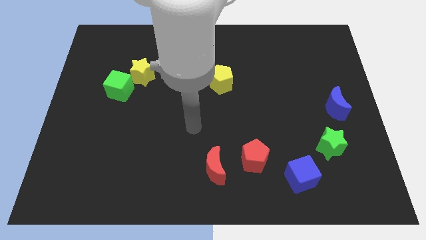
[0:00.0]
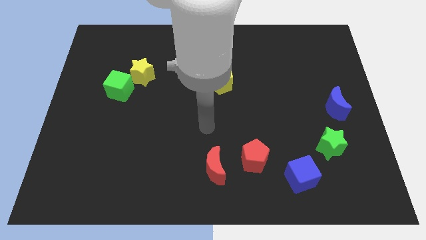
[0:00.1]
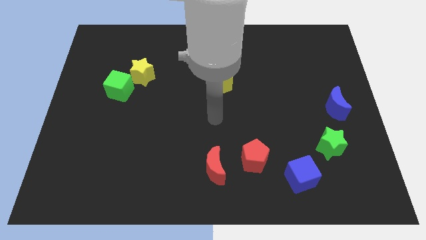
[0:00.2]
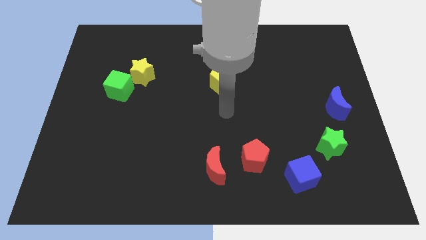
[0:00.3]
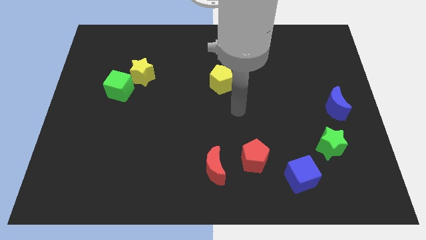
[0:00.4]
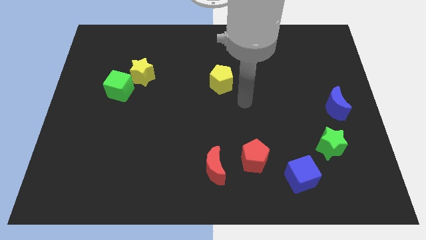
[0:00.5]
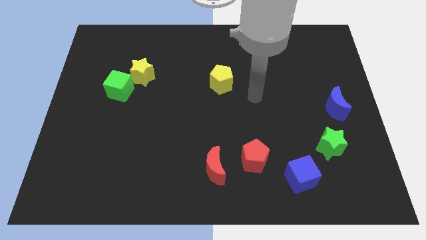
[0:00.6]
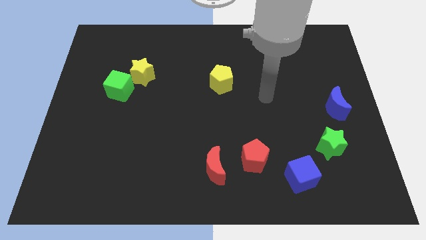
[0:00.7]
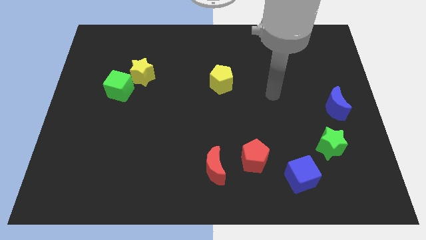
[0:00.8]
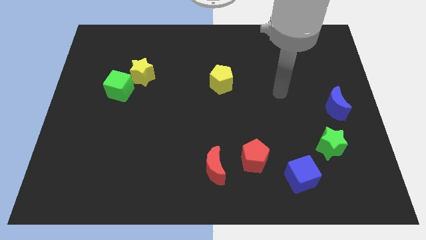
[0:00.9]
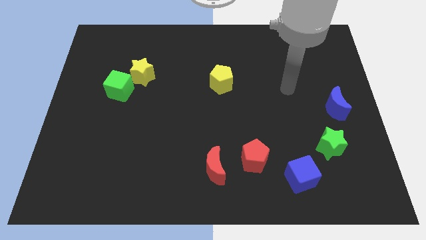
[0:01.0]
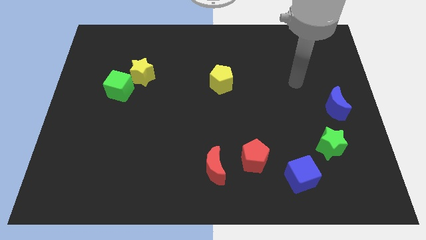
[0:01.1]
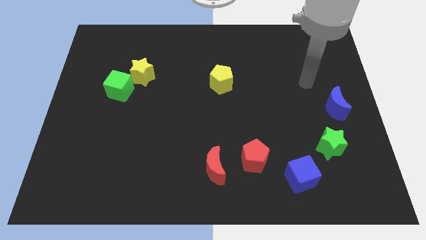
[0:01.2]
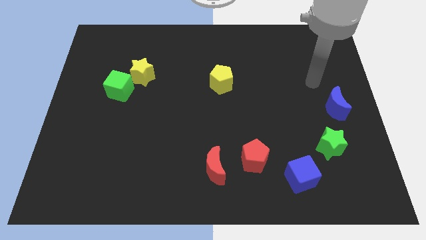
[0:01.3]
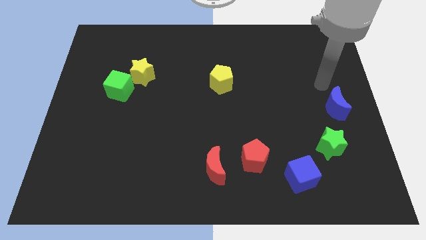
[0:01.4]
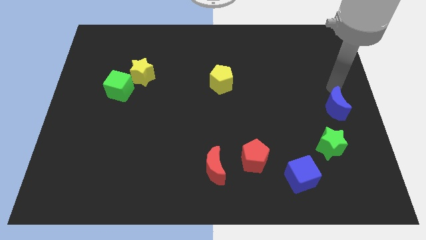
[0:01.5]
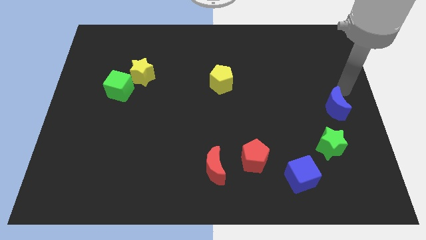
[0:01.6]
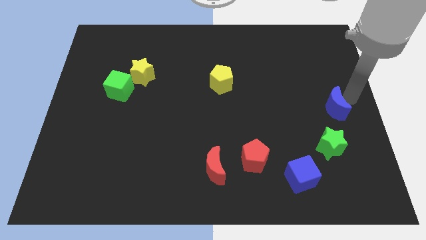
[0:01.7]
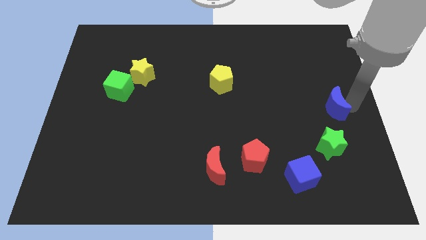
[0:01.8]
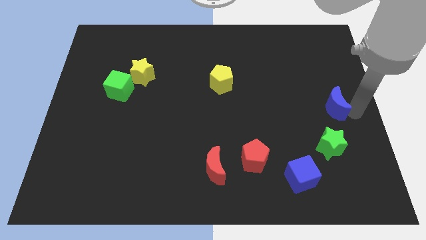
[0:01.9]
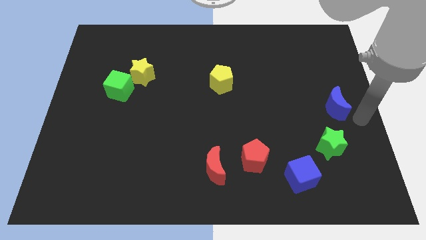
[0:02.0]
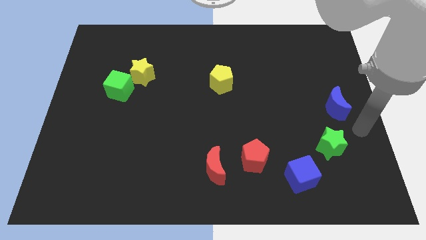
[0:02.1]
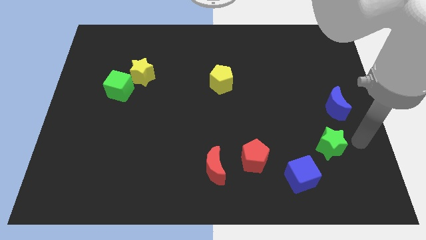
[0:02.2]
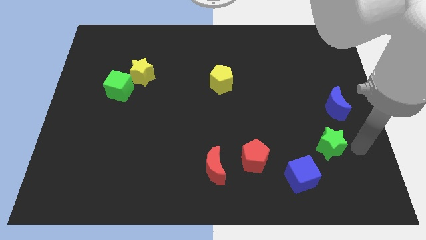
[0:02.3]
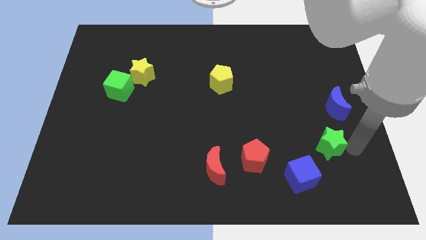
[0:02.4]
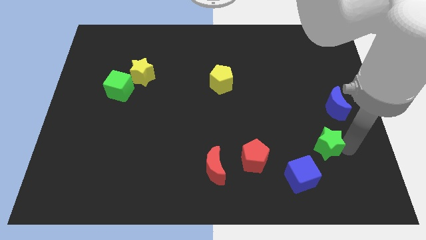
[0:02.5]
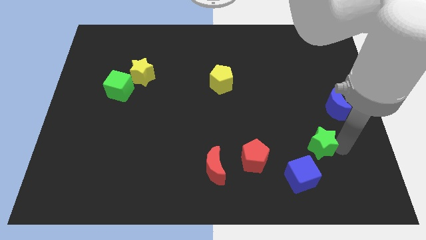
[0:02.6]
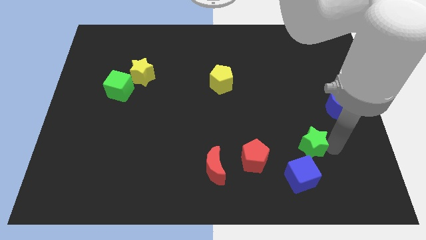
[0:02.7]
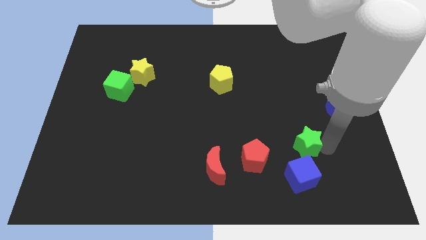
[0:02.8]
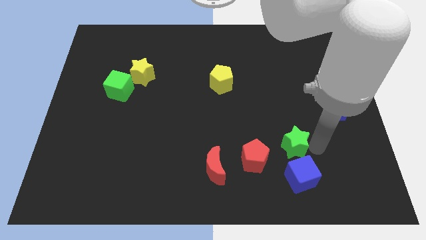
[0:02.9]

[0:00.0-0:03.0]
move the green star left slightly

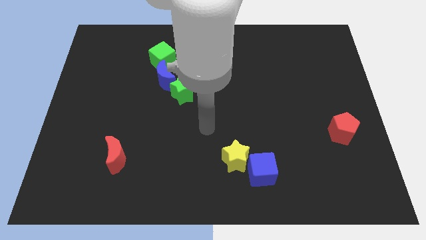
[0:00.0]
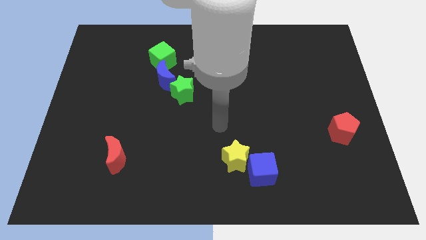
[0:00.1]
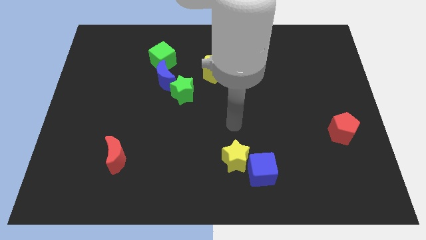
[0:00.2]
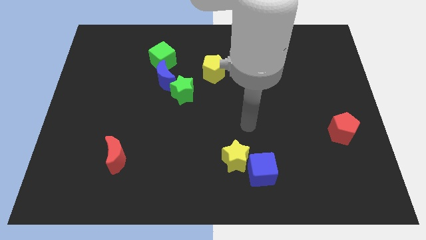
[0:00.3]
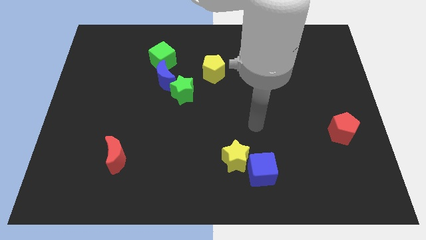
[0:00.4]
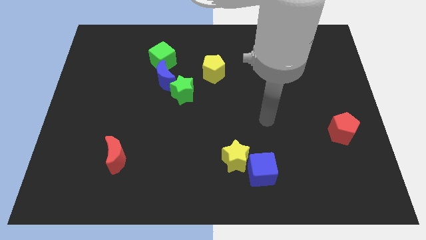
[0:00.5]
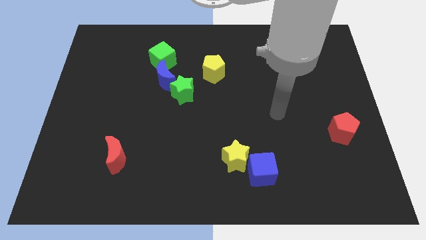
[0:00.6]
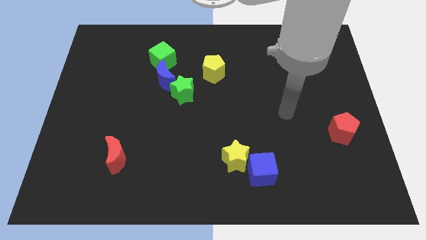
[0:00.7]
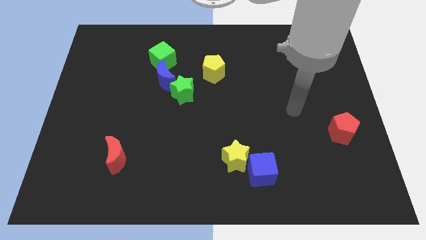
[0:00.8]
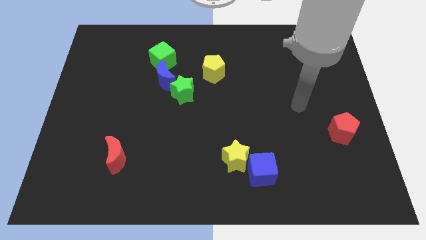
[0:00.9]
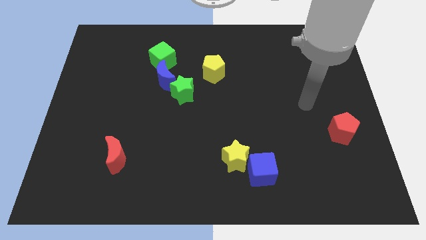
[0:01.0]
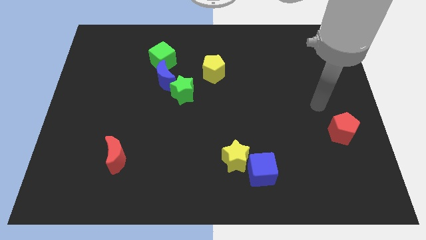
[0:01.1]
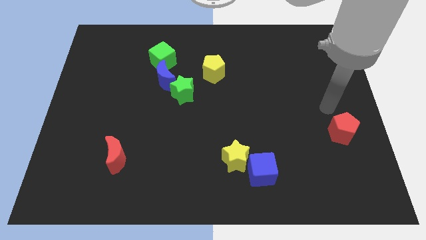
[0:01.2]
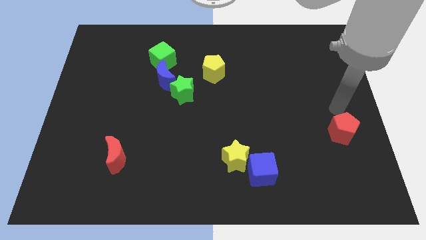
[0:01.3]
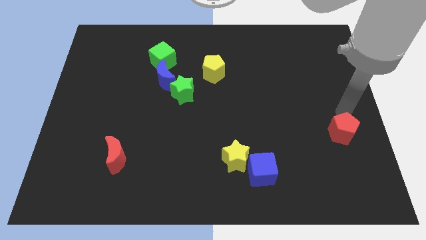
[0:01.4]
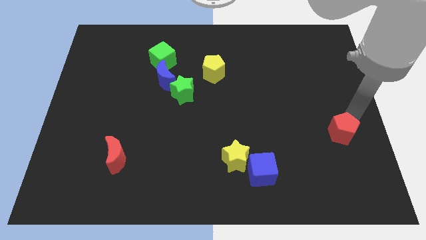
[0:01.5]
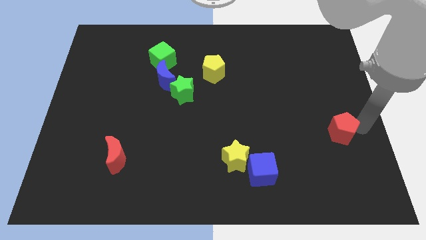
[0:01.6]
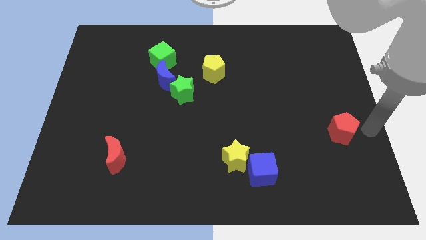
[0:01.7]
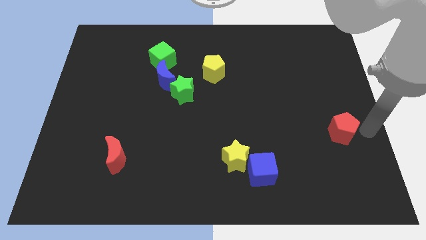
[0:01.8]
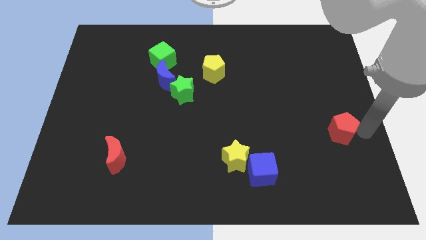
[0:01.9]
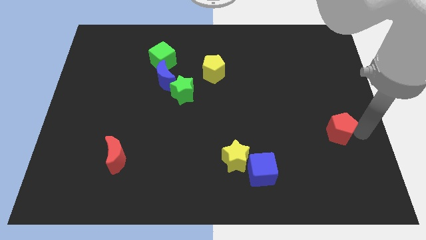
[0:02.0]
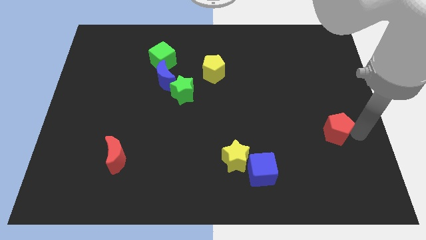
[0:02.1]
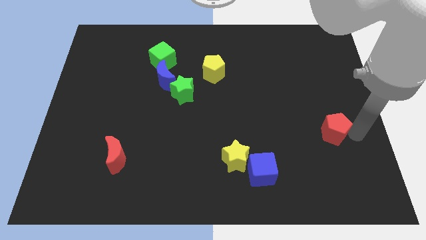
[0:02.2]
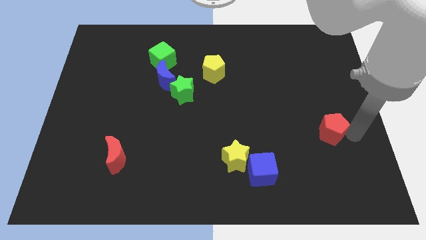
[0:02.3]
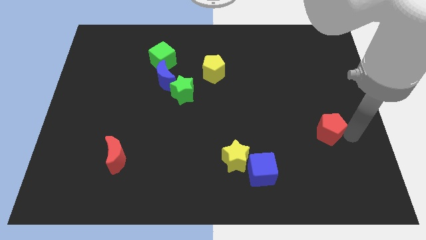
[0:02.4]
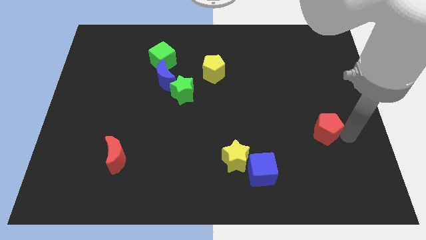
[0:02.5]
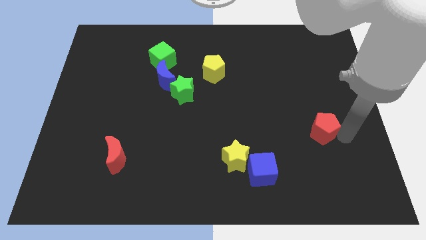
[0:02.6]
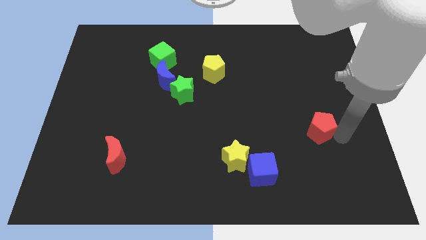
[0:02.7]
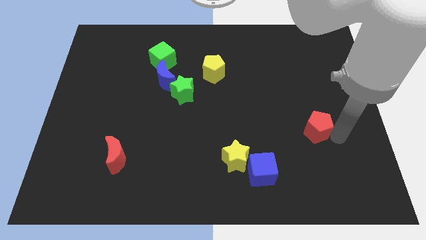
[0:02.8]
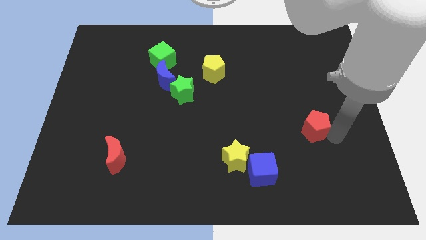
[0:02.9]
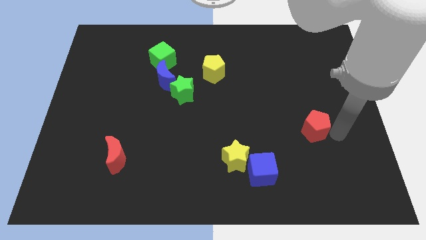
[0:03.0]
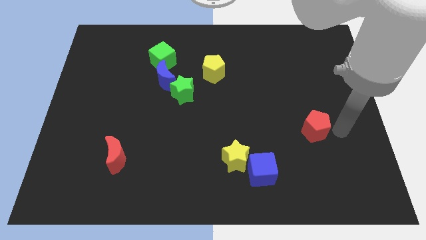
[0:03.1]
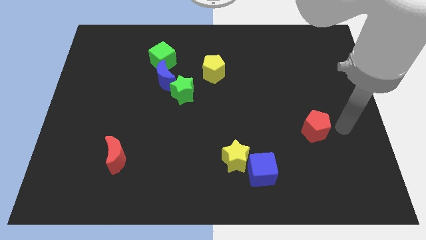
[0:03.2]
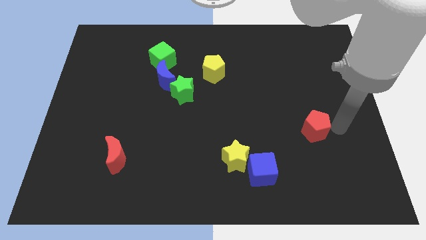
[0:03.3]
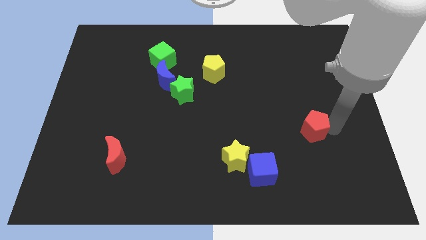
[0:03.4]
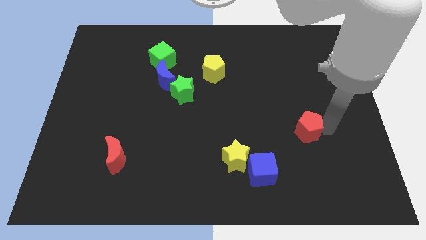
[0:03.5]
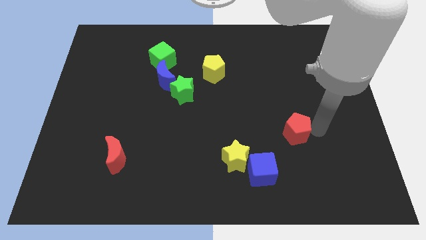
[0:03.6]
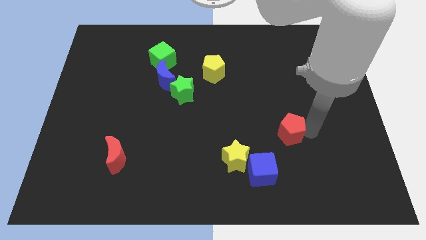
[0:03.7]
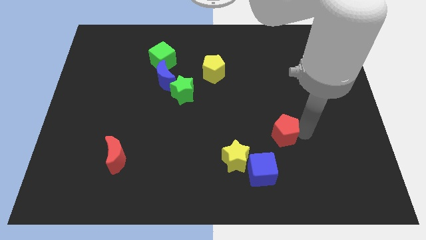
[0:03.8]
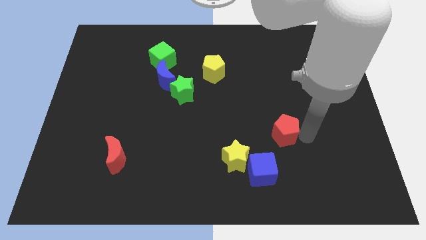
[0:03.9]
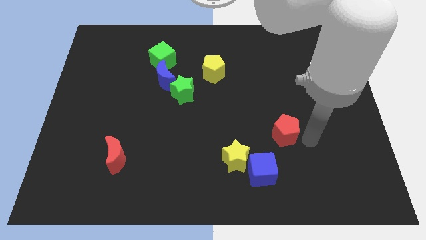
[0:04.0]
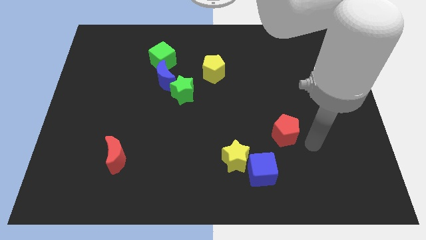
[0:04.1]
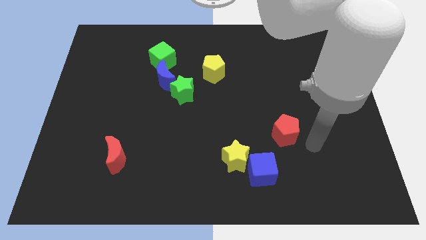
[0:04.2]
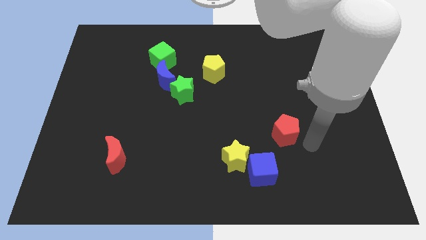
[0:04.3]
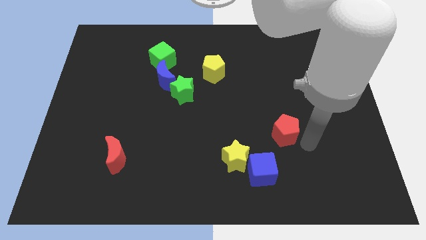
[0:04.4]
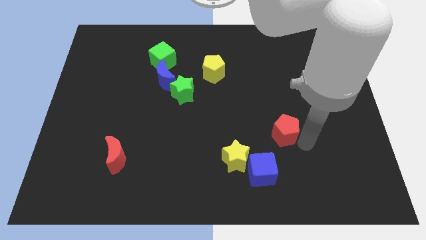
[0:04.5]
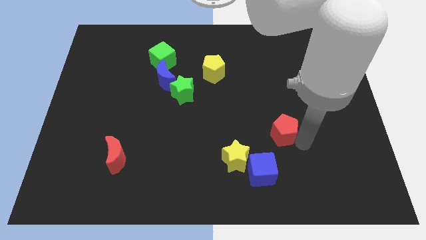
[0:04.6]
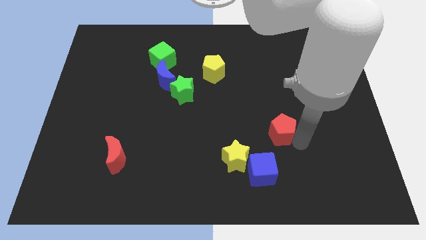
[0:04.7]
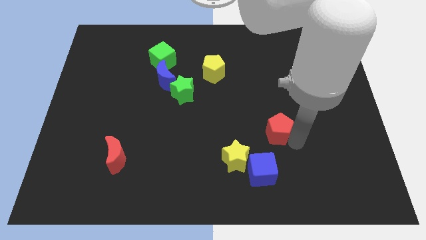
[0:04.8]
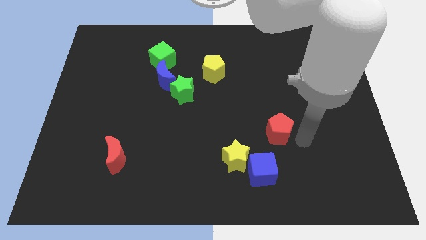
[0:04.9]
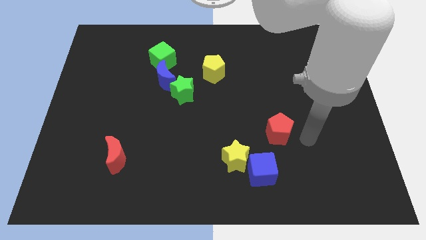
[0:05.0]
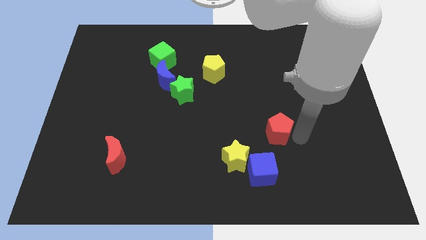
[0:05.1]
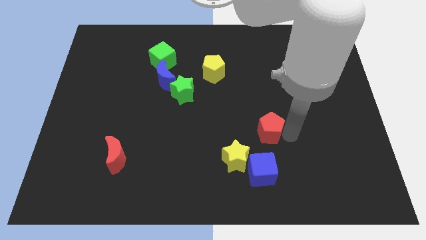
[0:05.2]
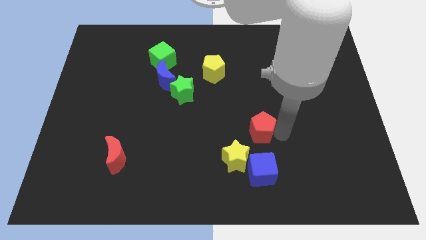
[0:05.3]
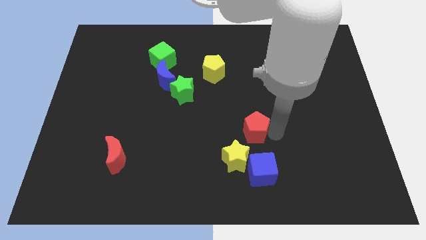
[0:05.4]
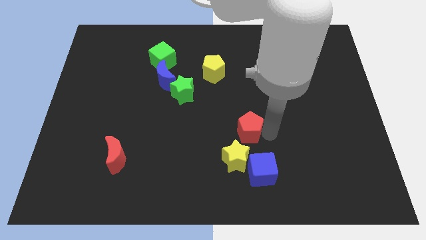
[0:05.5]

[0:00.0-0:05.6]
slide the red pentagon to the left
